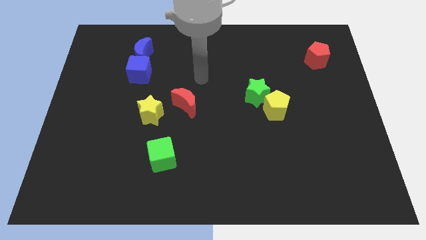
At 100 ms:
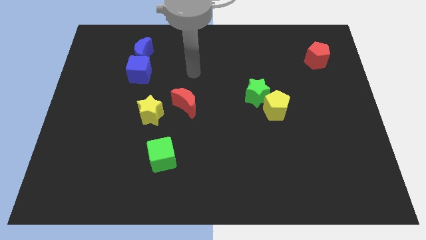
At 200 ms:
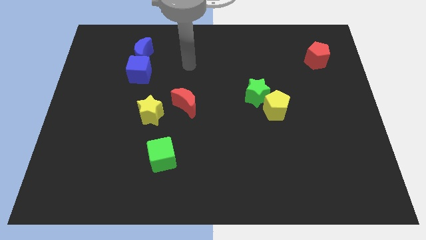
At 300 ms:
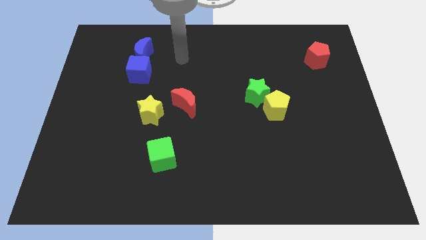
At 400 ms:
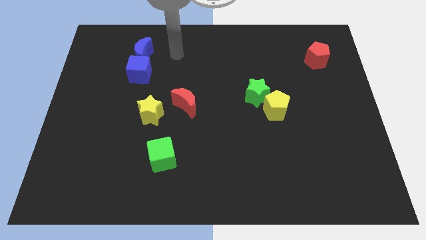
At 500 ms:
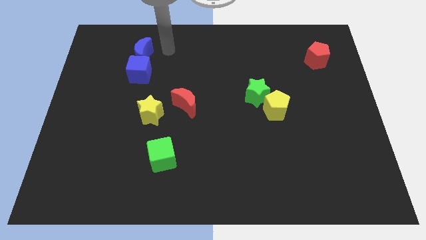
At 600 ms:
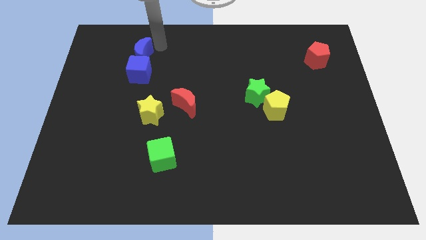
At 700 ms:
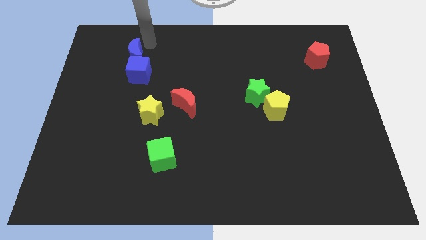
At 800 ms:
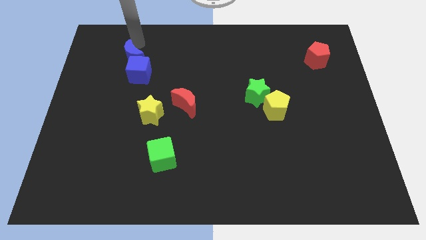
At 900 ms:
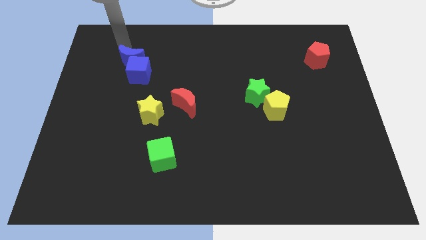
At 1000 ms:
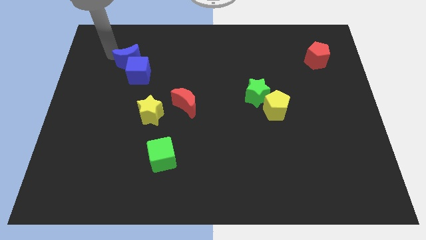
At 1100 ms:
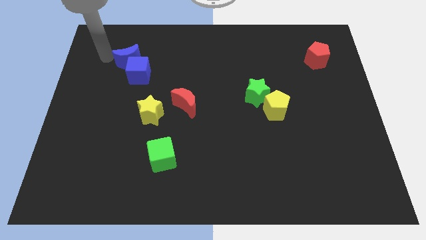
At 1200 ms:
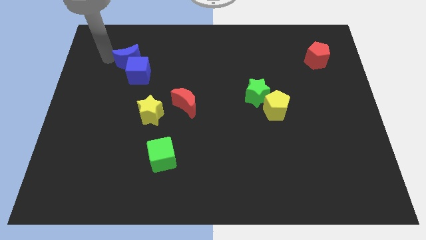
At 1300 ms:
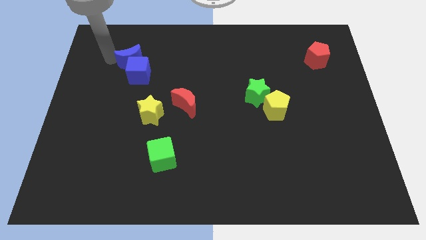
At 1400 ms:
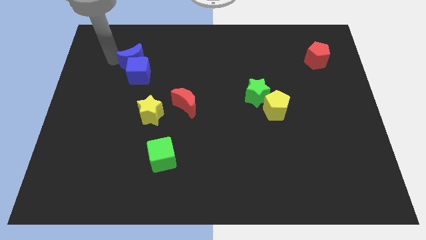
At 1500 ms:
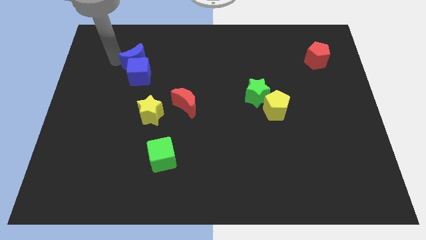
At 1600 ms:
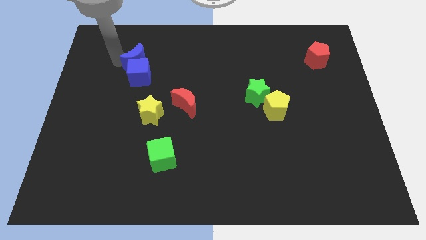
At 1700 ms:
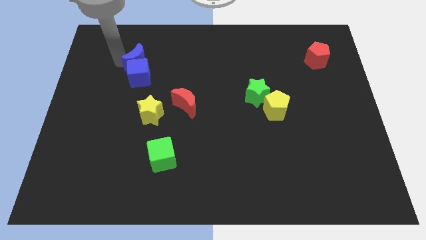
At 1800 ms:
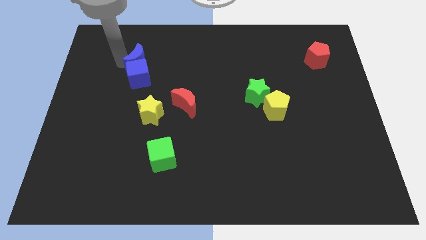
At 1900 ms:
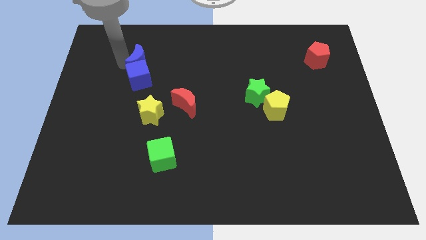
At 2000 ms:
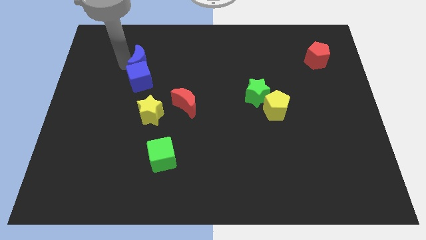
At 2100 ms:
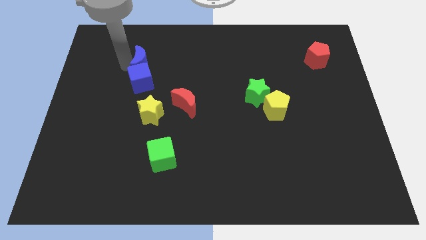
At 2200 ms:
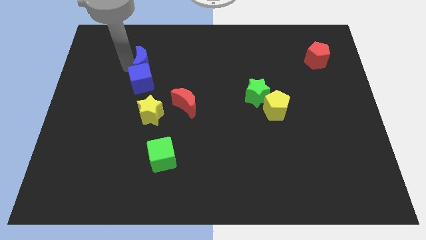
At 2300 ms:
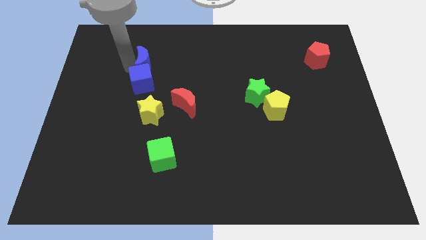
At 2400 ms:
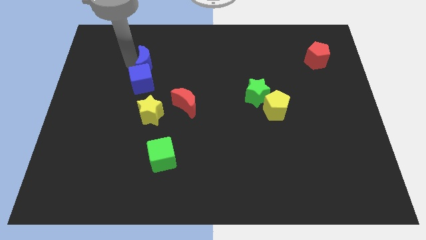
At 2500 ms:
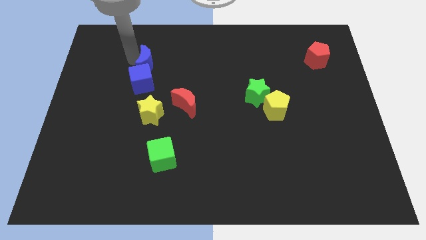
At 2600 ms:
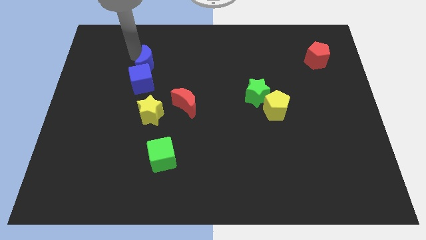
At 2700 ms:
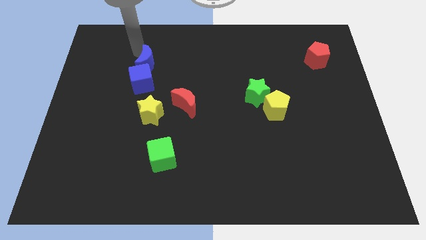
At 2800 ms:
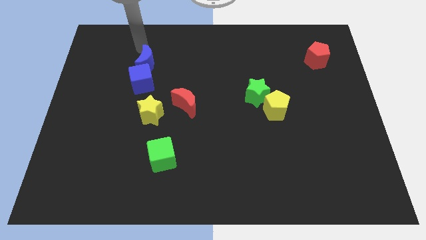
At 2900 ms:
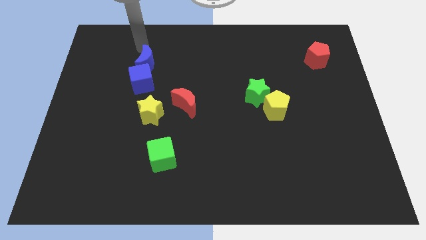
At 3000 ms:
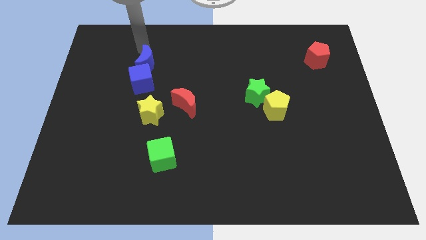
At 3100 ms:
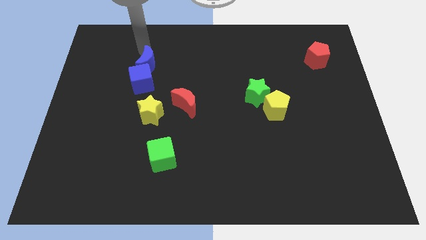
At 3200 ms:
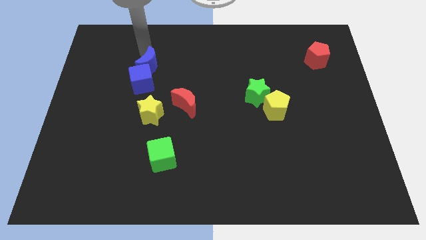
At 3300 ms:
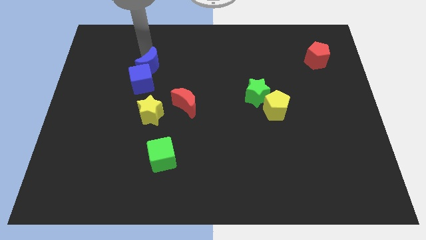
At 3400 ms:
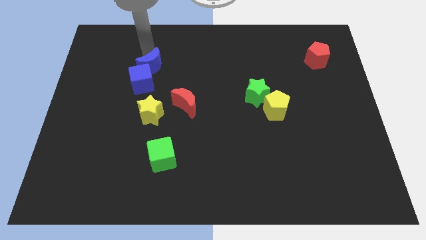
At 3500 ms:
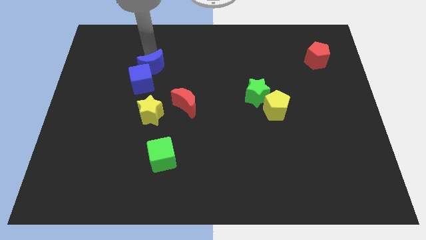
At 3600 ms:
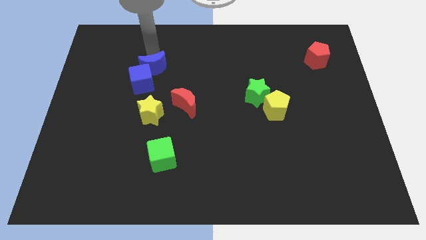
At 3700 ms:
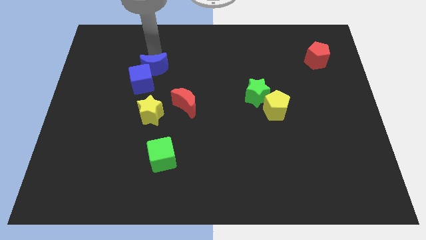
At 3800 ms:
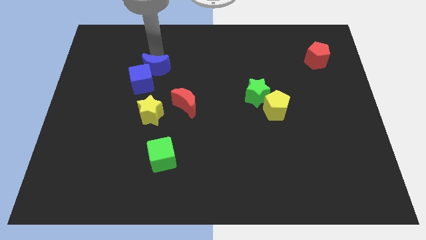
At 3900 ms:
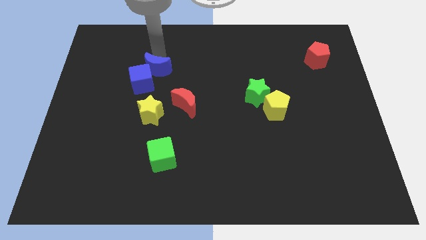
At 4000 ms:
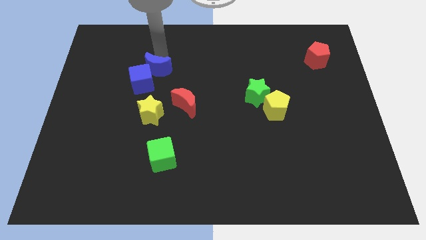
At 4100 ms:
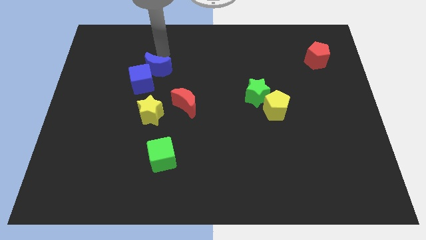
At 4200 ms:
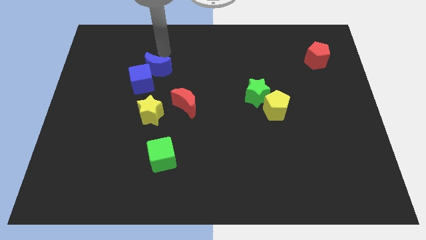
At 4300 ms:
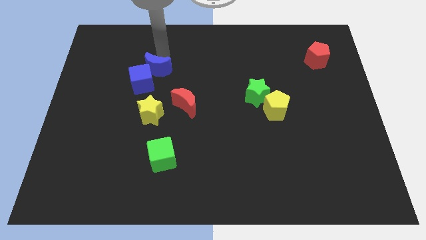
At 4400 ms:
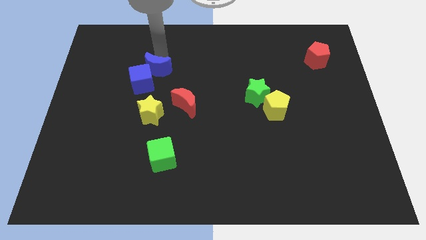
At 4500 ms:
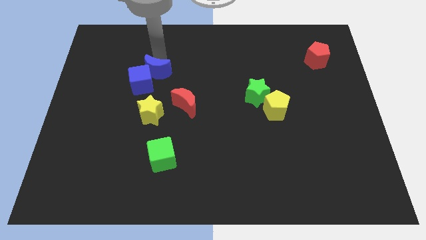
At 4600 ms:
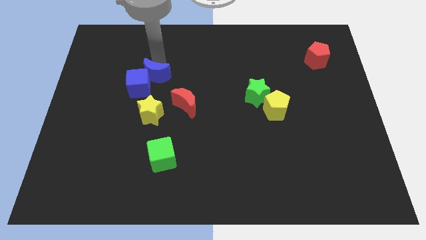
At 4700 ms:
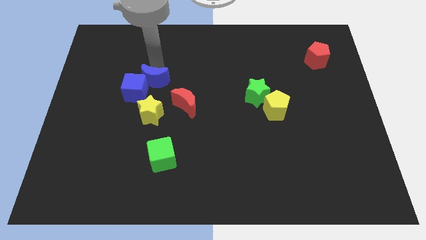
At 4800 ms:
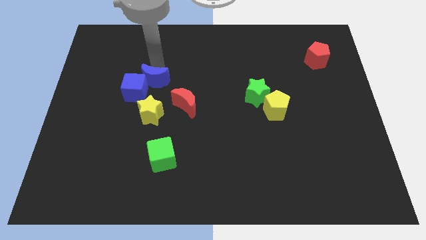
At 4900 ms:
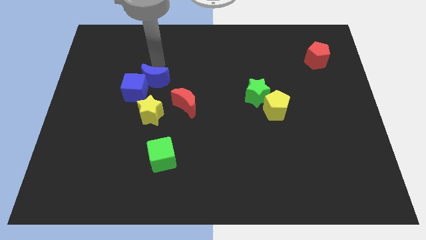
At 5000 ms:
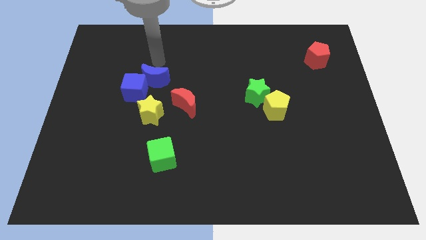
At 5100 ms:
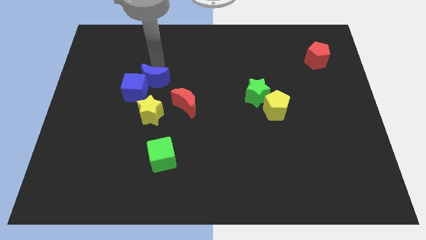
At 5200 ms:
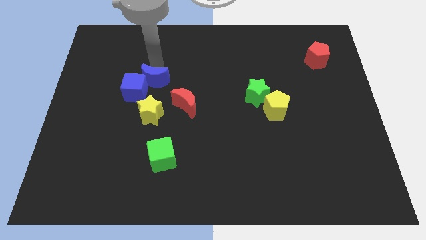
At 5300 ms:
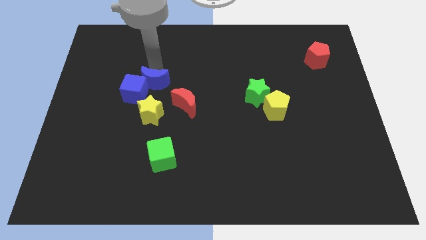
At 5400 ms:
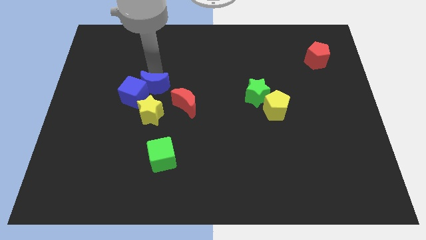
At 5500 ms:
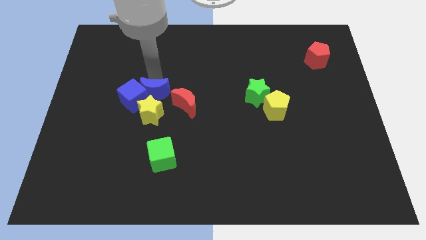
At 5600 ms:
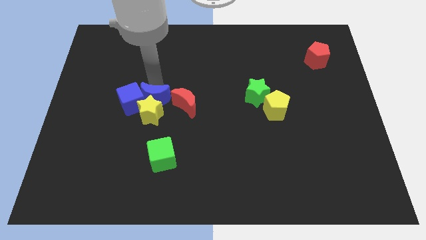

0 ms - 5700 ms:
slide the blue moon next to the yellow star

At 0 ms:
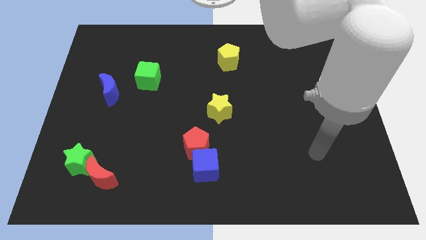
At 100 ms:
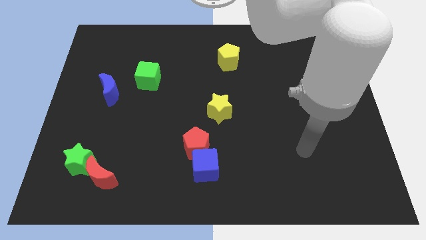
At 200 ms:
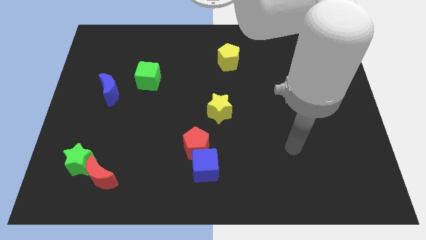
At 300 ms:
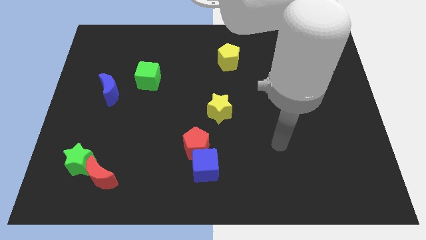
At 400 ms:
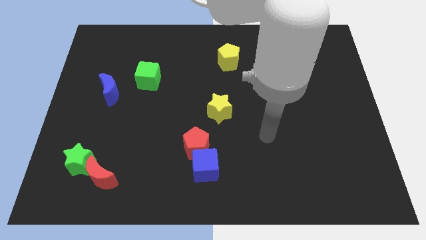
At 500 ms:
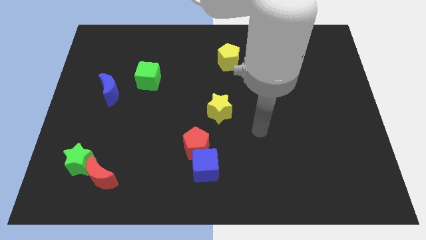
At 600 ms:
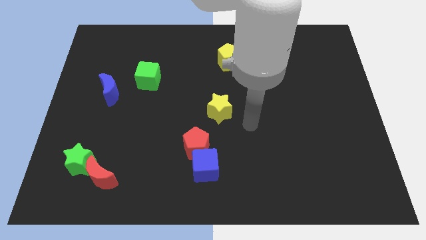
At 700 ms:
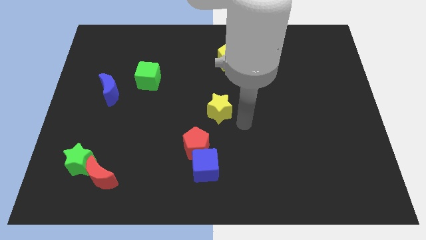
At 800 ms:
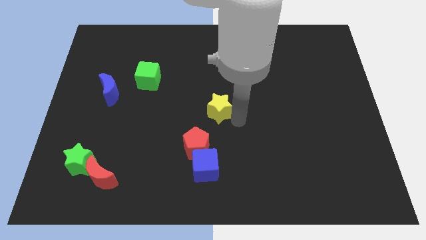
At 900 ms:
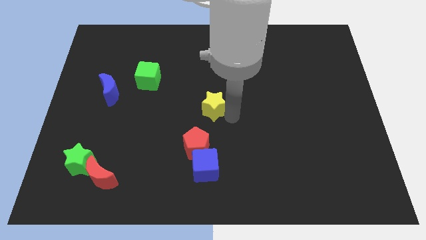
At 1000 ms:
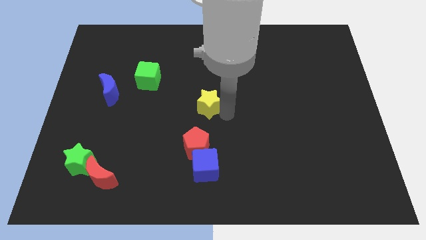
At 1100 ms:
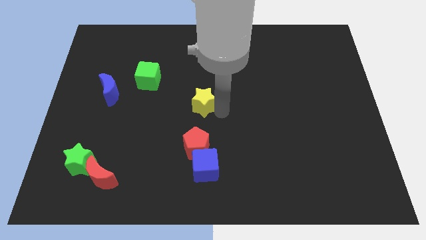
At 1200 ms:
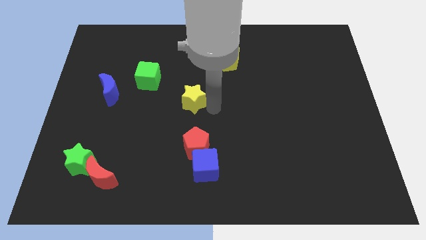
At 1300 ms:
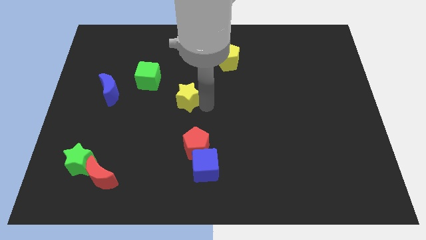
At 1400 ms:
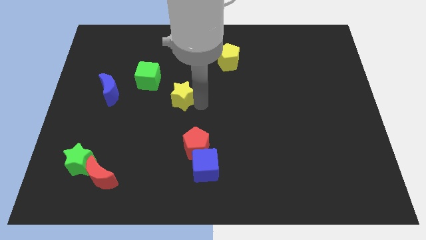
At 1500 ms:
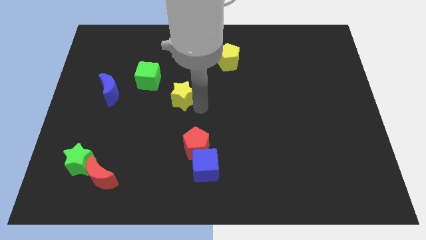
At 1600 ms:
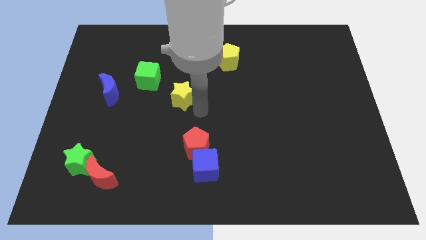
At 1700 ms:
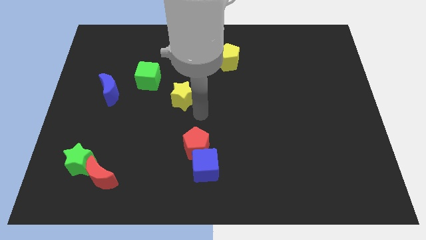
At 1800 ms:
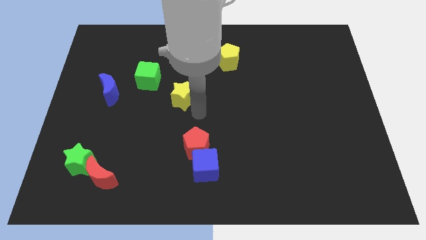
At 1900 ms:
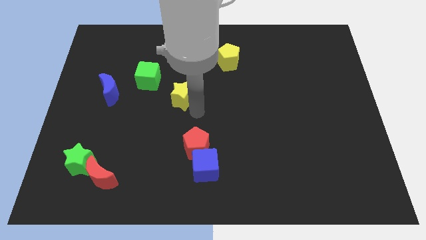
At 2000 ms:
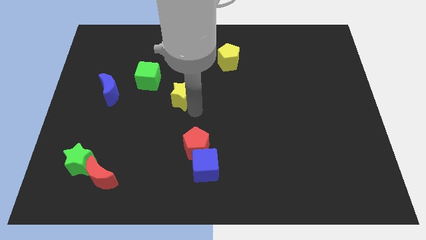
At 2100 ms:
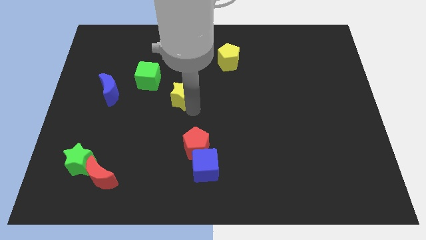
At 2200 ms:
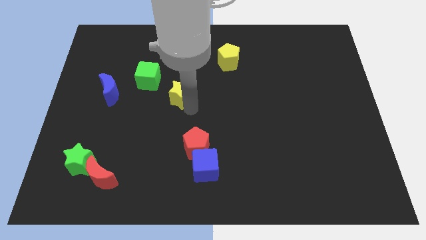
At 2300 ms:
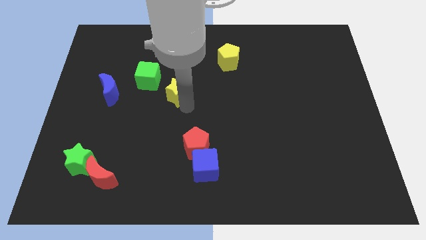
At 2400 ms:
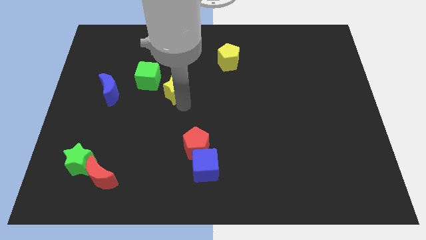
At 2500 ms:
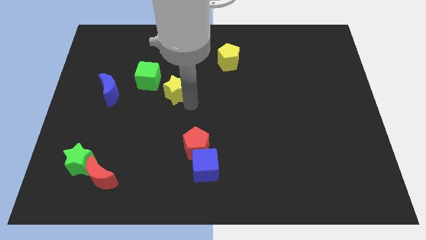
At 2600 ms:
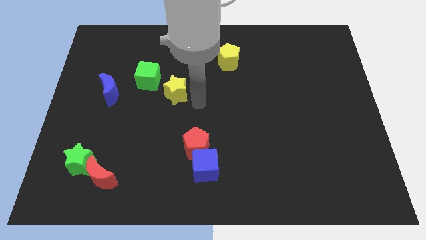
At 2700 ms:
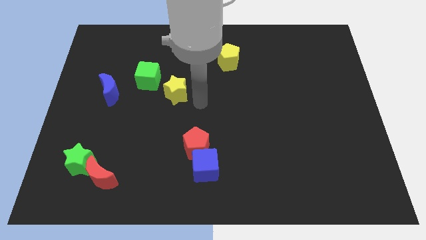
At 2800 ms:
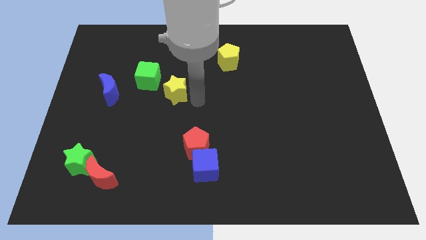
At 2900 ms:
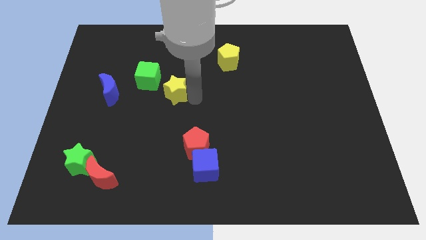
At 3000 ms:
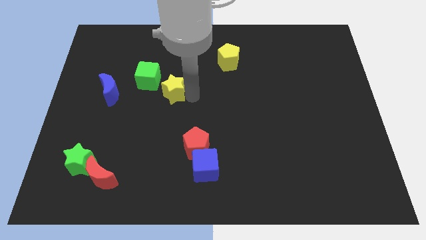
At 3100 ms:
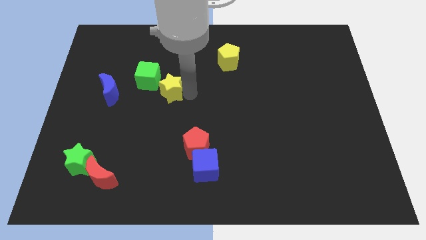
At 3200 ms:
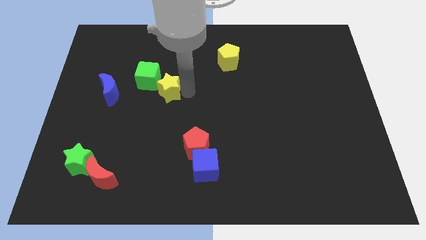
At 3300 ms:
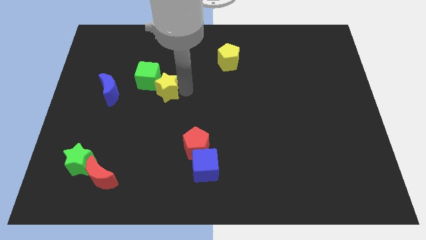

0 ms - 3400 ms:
push the yellow star to the green cube
